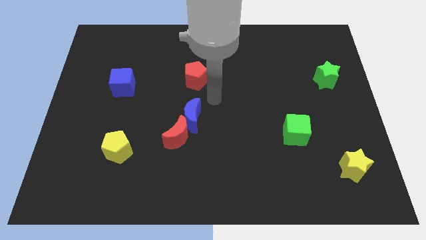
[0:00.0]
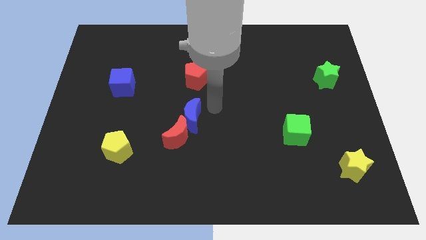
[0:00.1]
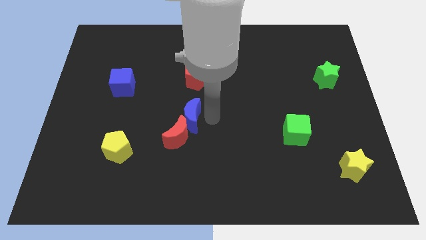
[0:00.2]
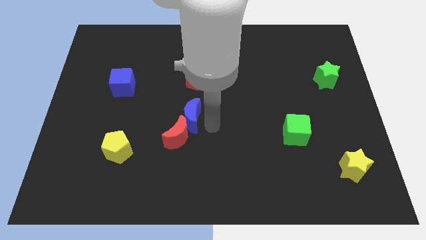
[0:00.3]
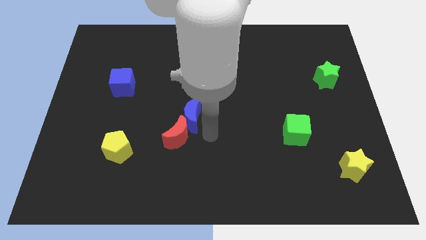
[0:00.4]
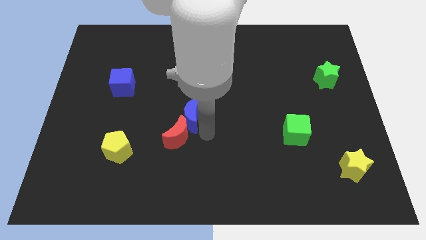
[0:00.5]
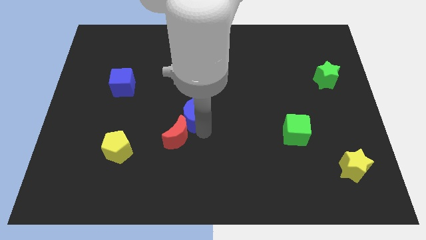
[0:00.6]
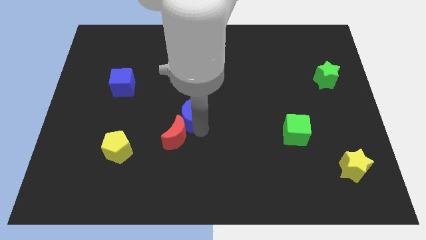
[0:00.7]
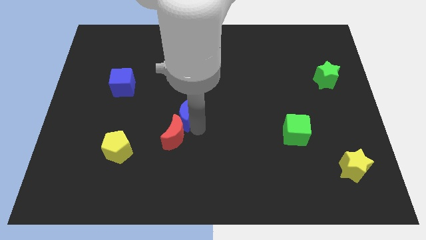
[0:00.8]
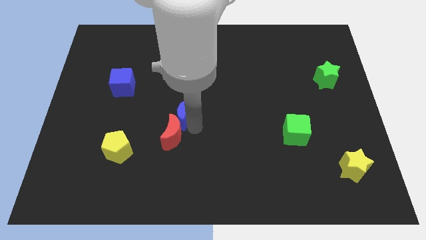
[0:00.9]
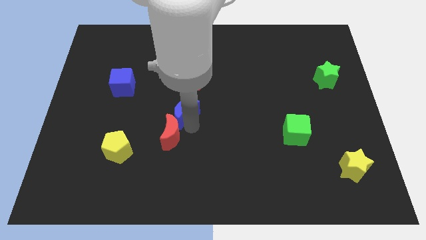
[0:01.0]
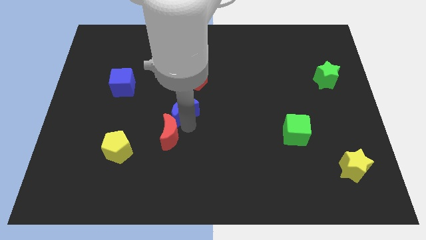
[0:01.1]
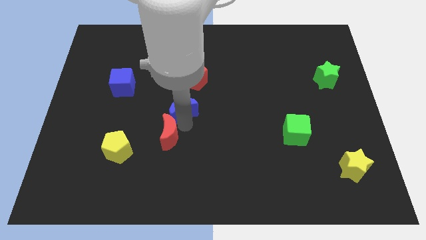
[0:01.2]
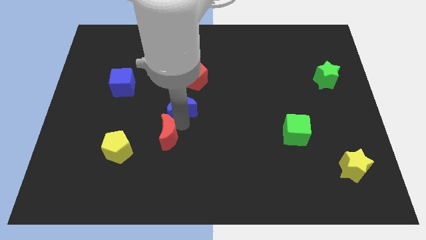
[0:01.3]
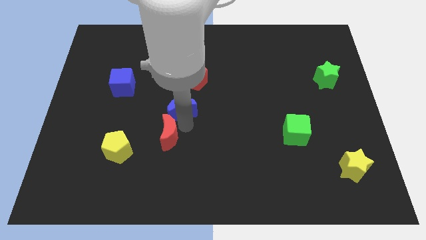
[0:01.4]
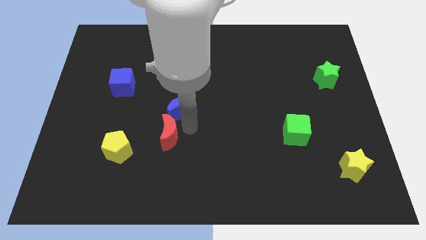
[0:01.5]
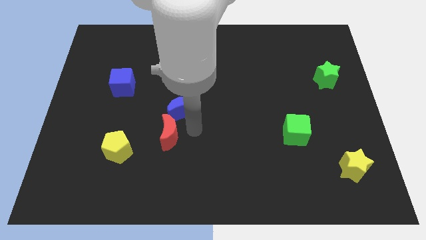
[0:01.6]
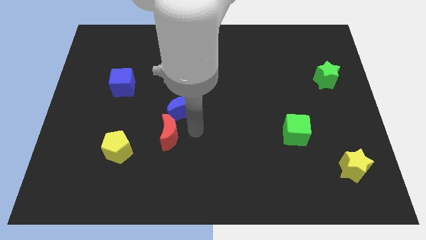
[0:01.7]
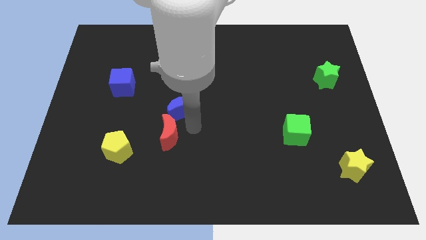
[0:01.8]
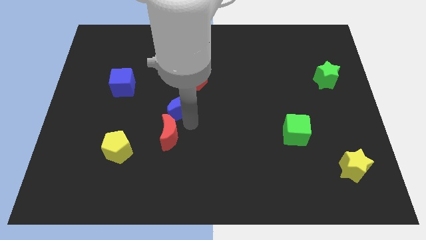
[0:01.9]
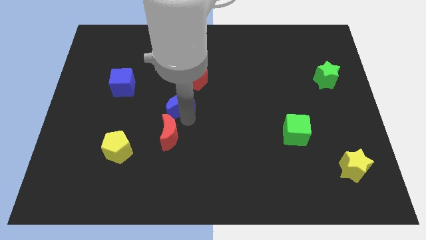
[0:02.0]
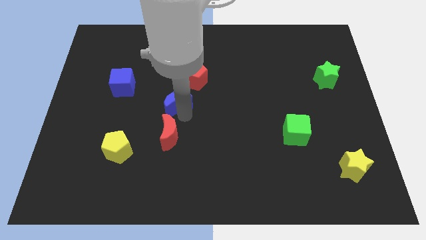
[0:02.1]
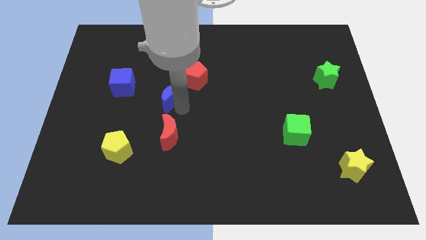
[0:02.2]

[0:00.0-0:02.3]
move the blue moon a bit upwards and left

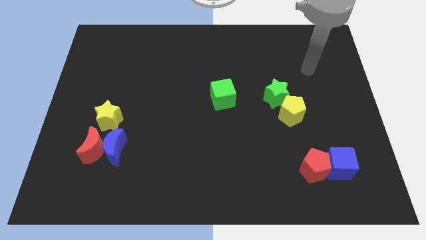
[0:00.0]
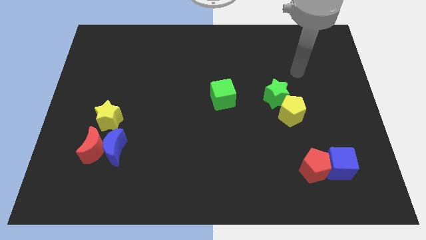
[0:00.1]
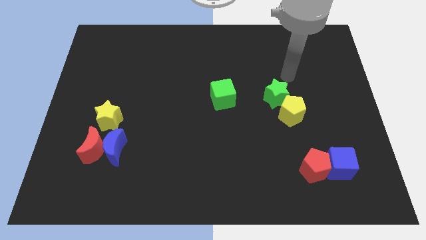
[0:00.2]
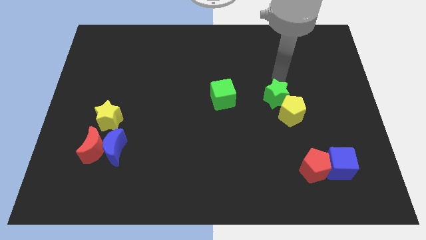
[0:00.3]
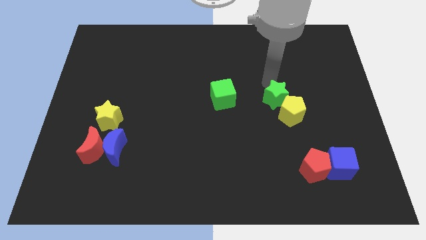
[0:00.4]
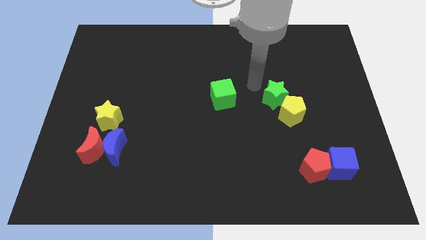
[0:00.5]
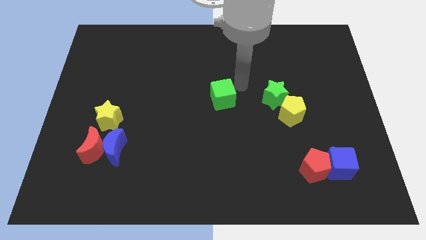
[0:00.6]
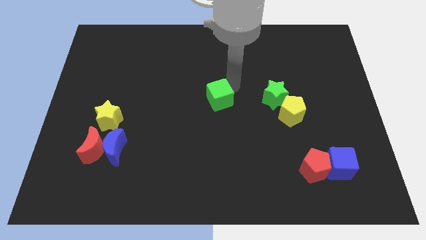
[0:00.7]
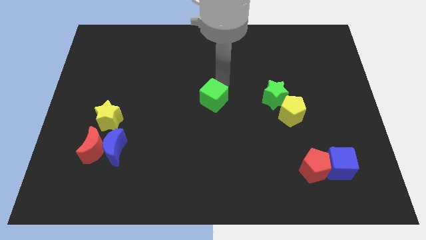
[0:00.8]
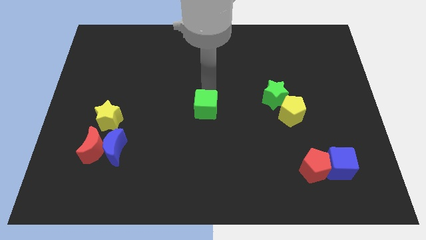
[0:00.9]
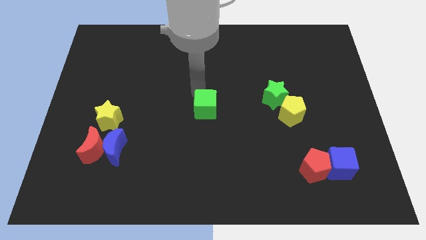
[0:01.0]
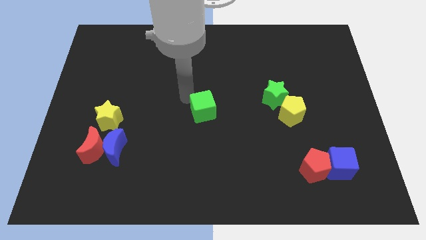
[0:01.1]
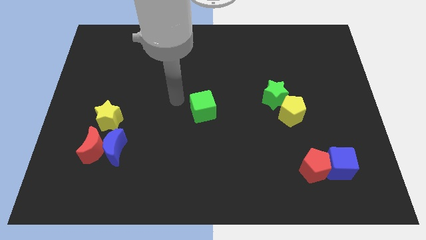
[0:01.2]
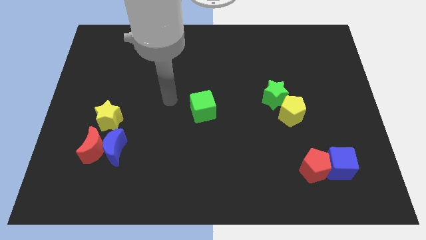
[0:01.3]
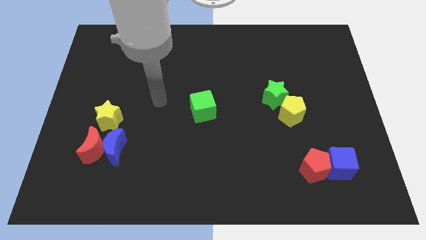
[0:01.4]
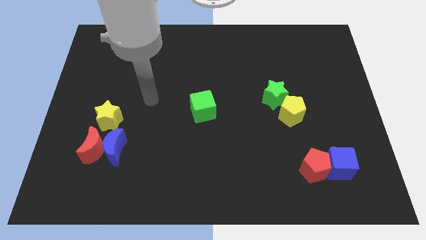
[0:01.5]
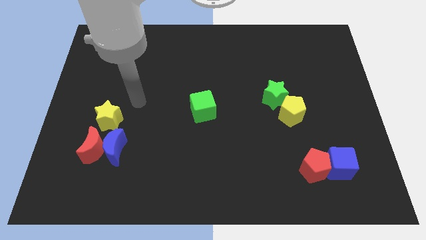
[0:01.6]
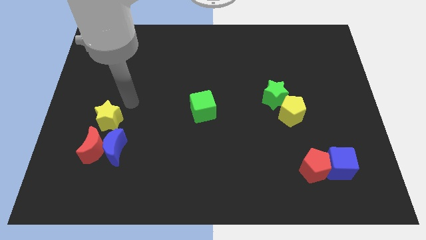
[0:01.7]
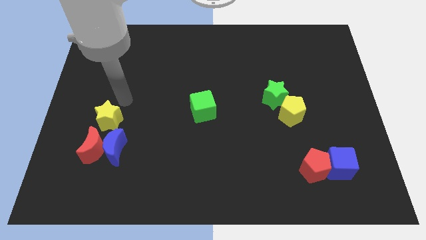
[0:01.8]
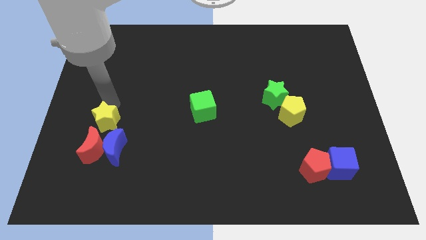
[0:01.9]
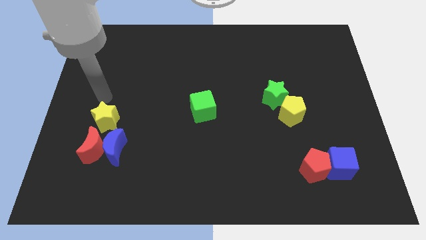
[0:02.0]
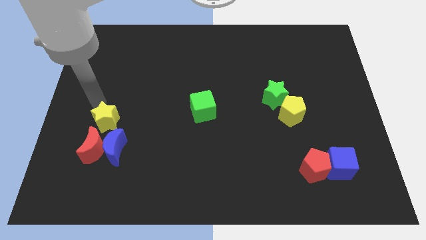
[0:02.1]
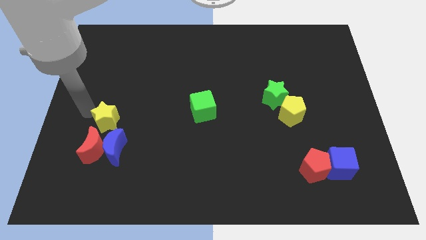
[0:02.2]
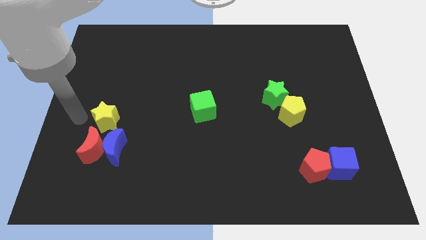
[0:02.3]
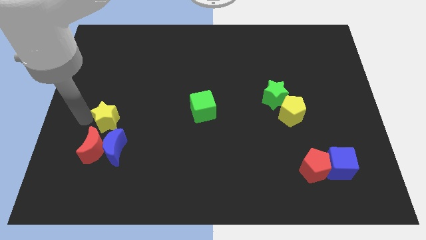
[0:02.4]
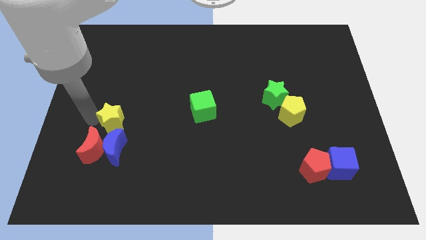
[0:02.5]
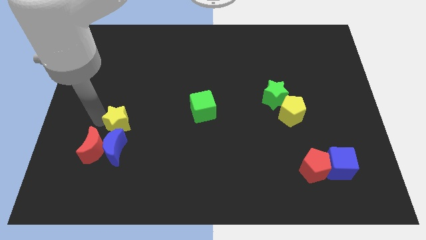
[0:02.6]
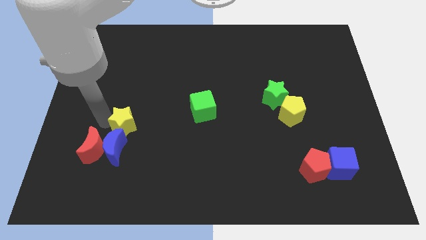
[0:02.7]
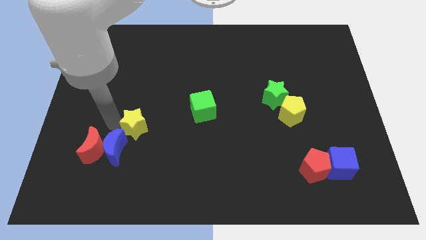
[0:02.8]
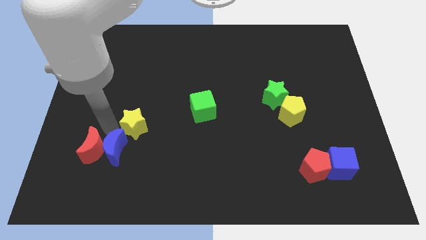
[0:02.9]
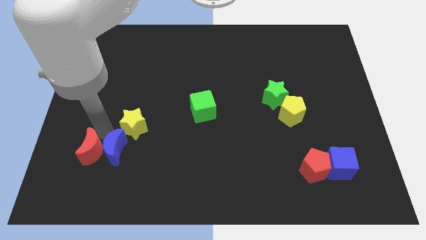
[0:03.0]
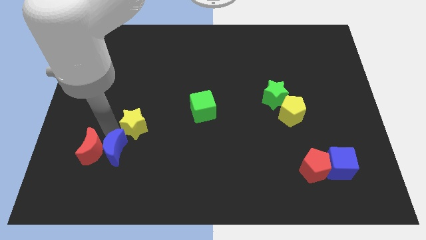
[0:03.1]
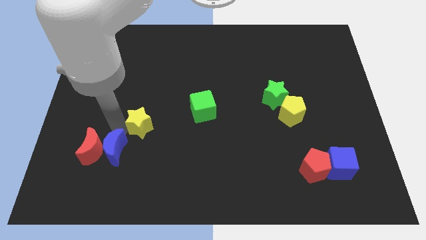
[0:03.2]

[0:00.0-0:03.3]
move the yellow star right a little bit

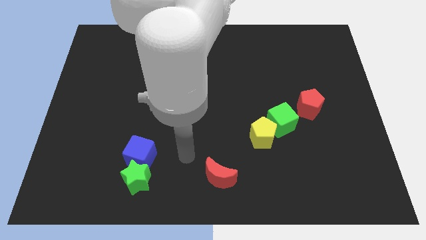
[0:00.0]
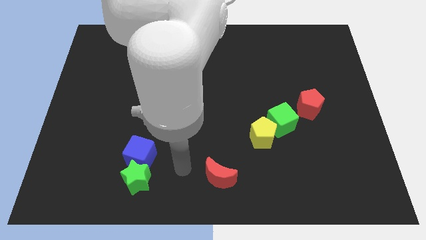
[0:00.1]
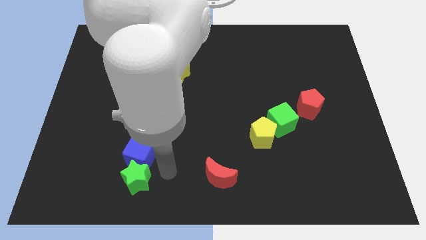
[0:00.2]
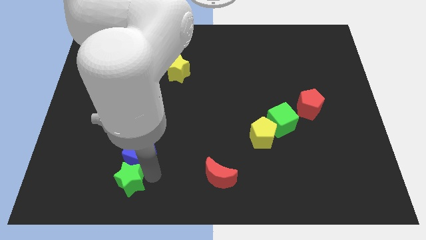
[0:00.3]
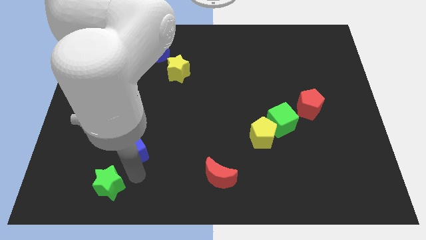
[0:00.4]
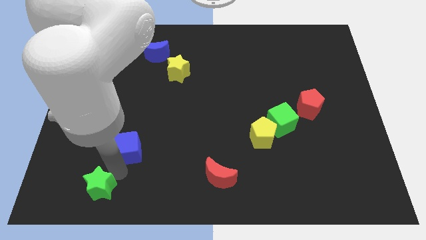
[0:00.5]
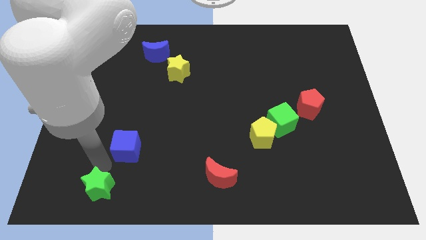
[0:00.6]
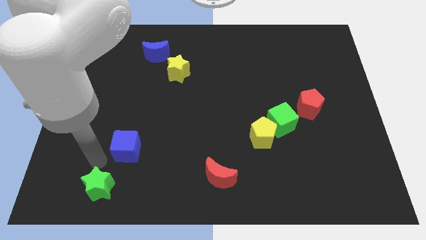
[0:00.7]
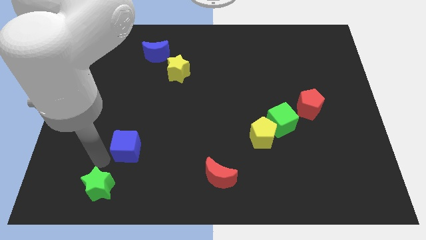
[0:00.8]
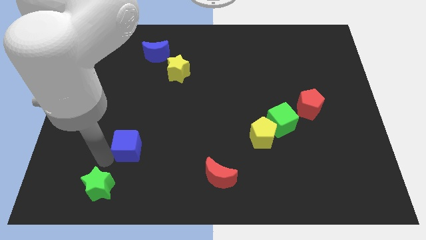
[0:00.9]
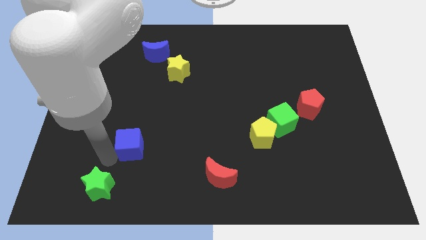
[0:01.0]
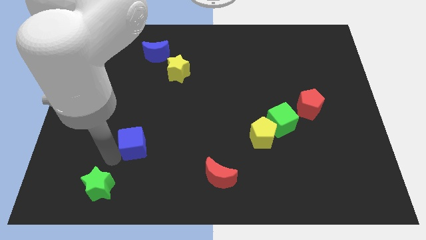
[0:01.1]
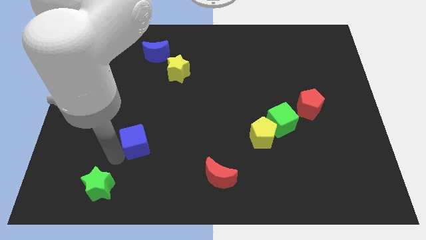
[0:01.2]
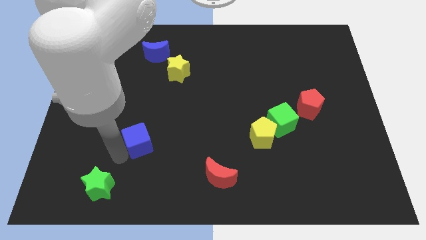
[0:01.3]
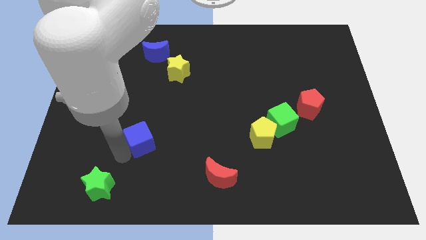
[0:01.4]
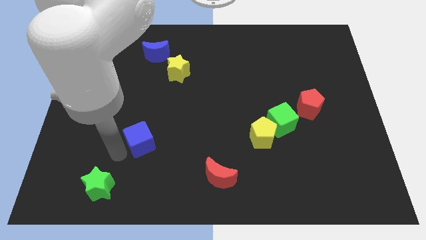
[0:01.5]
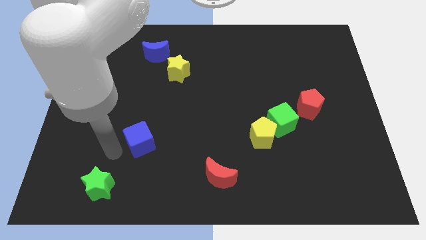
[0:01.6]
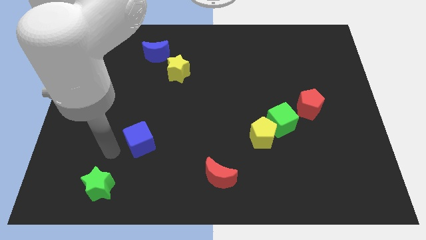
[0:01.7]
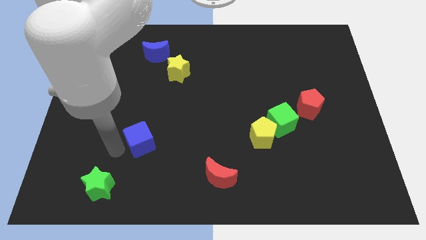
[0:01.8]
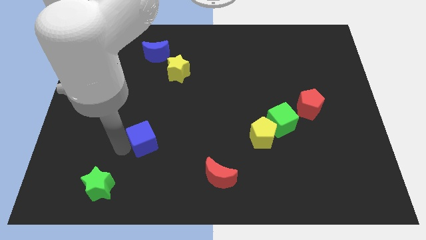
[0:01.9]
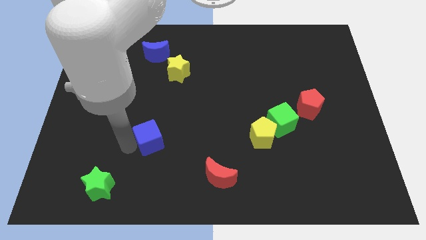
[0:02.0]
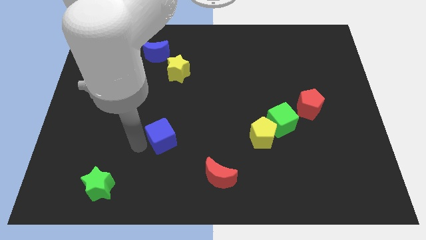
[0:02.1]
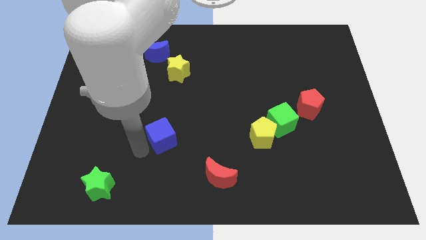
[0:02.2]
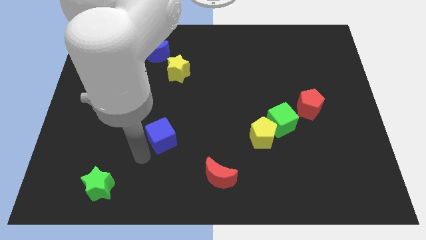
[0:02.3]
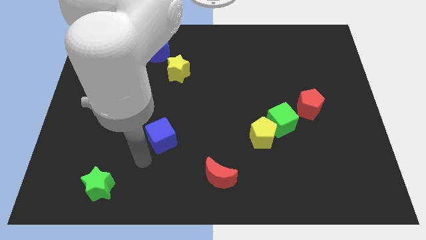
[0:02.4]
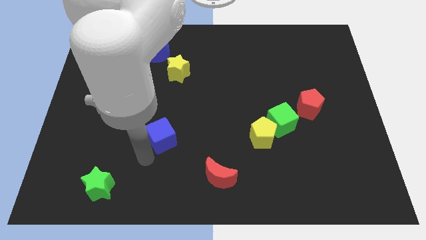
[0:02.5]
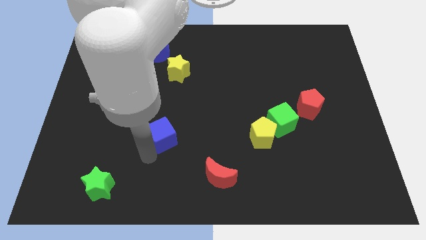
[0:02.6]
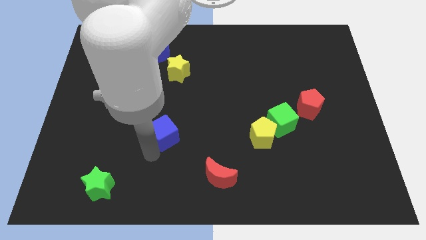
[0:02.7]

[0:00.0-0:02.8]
slightly move the blue cube up and to the right

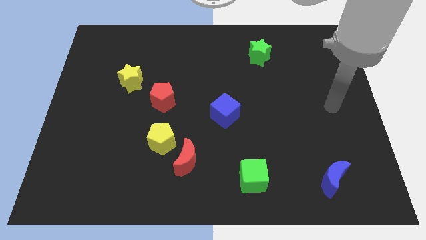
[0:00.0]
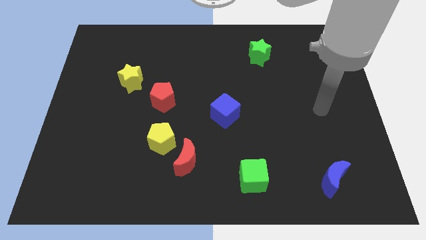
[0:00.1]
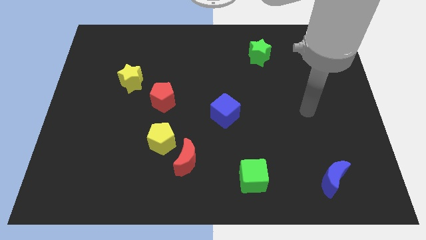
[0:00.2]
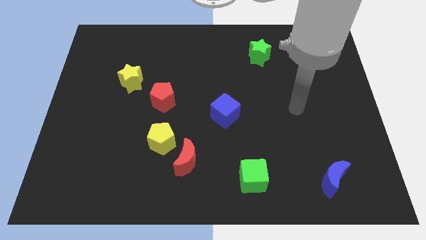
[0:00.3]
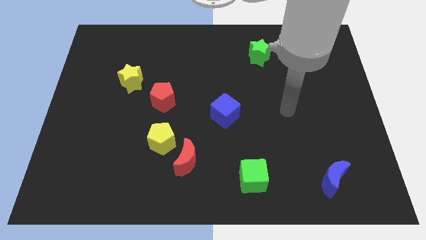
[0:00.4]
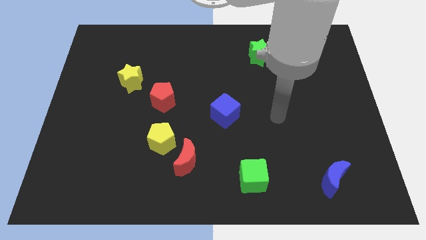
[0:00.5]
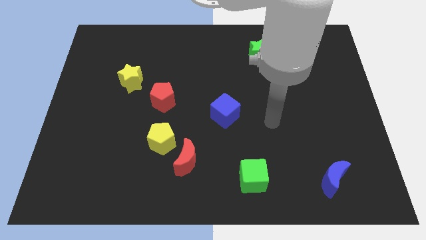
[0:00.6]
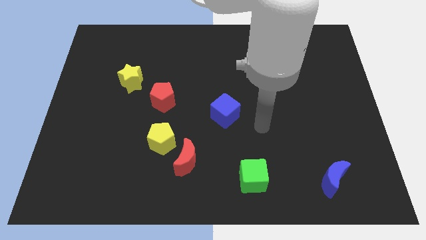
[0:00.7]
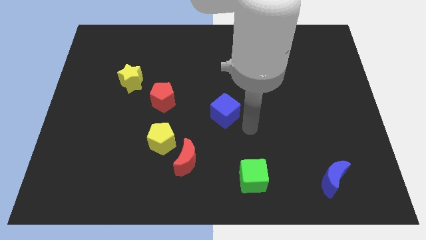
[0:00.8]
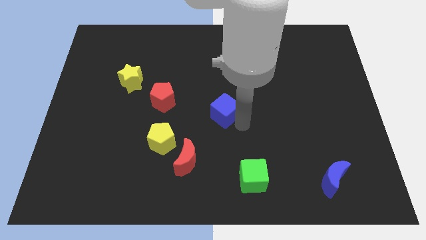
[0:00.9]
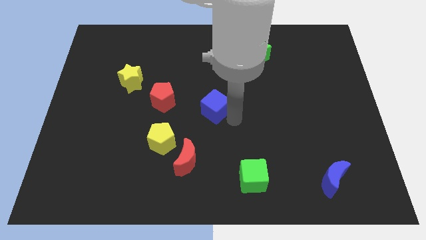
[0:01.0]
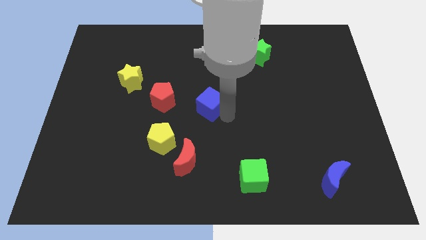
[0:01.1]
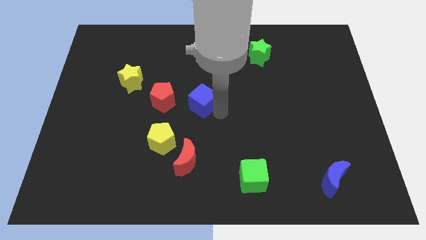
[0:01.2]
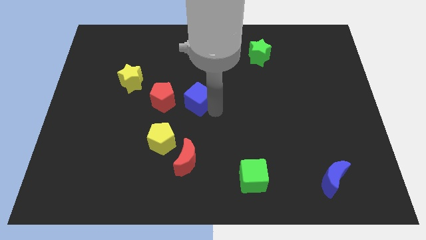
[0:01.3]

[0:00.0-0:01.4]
slightly push the blue cube up and to the left
